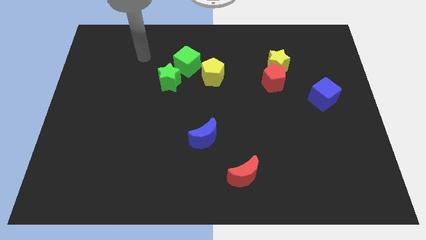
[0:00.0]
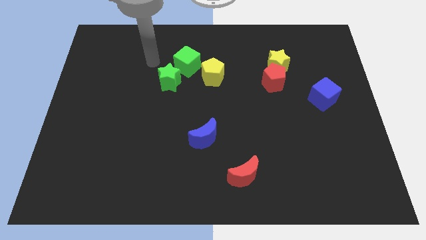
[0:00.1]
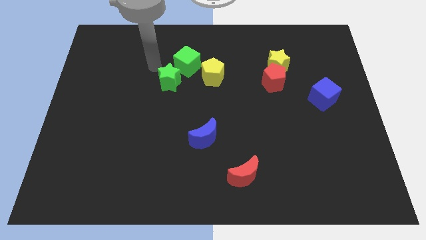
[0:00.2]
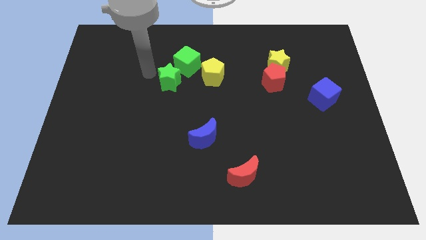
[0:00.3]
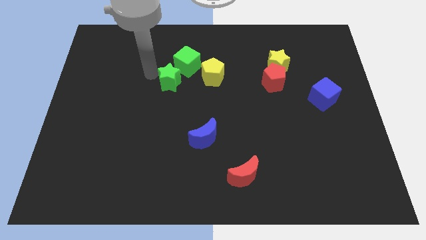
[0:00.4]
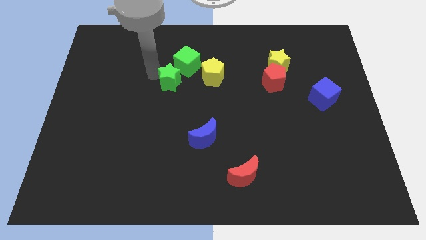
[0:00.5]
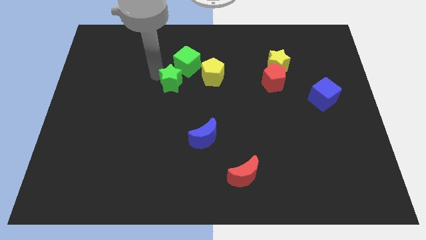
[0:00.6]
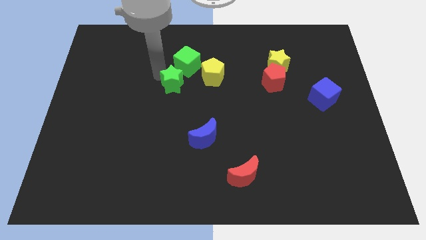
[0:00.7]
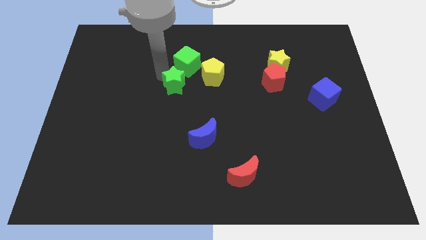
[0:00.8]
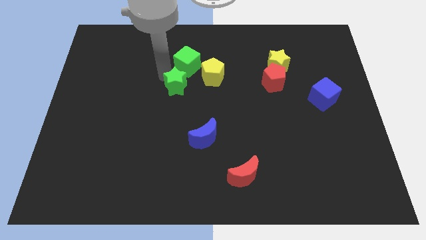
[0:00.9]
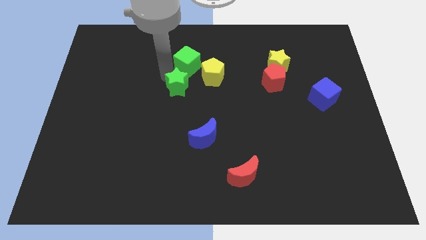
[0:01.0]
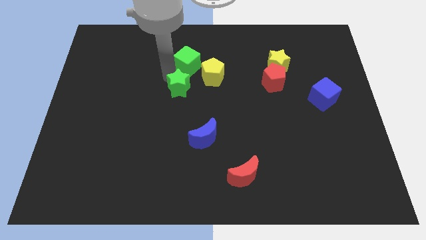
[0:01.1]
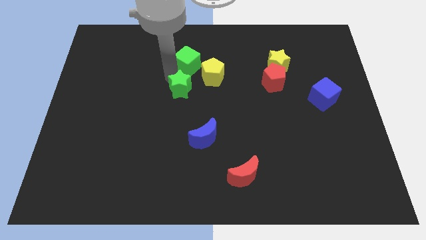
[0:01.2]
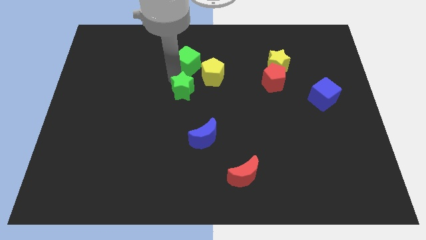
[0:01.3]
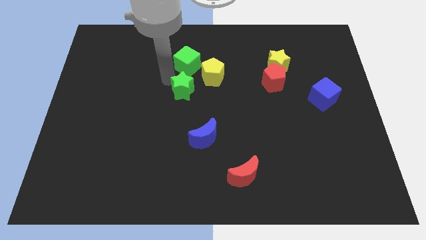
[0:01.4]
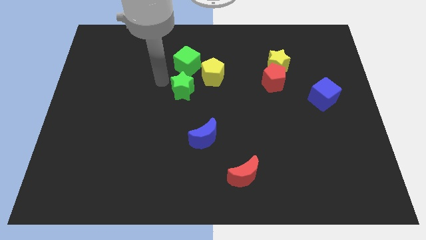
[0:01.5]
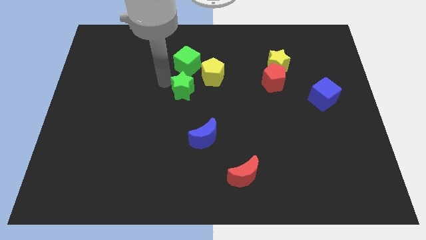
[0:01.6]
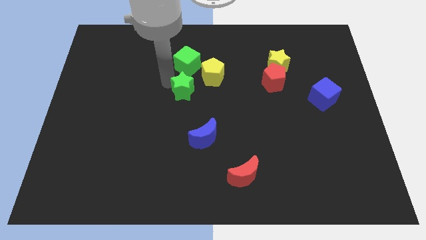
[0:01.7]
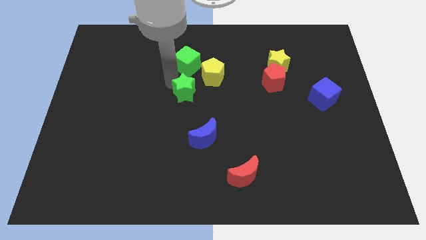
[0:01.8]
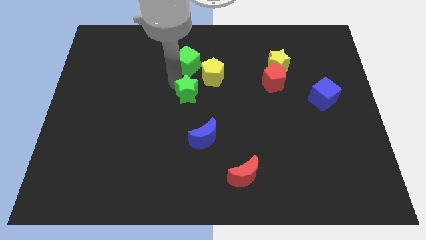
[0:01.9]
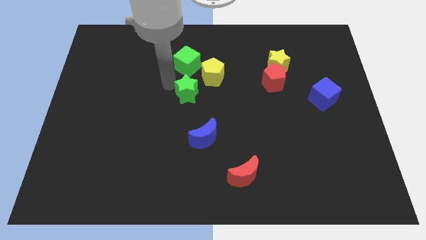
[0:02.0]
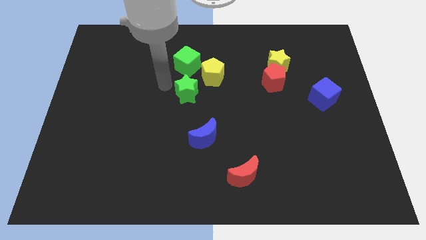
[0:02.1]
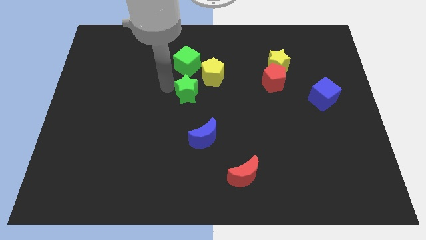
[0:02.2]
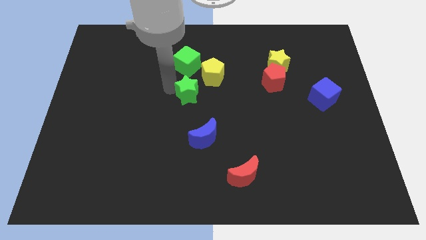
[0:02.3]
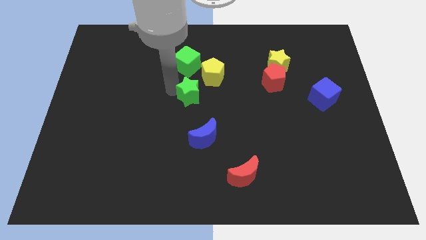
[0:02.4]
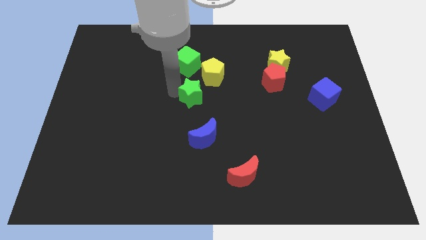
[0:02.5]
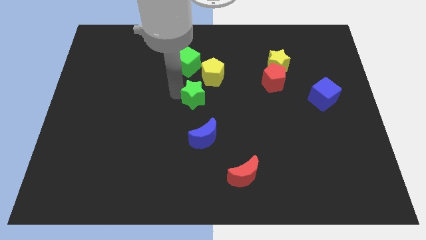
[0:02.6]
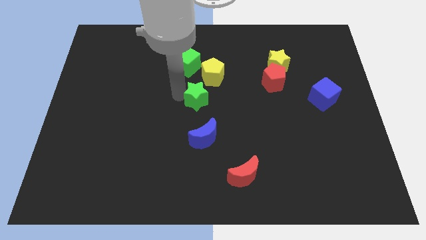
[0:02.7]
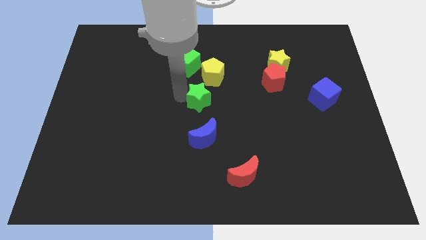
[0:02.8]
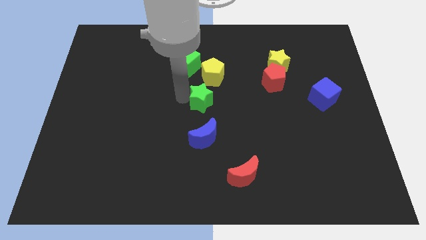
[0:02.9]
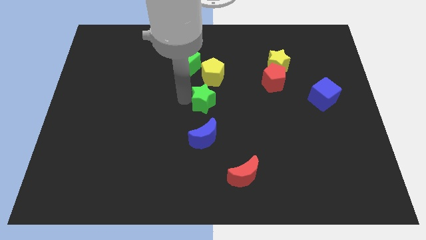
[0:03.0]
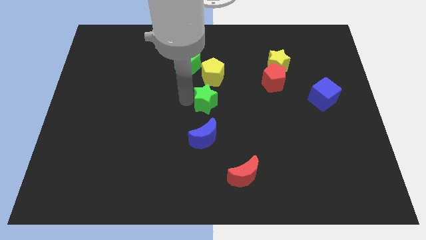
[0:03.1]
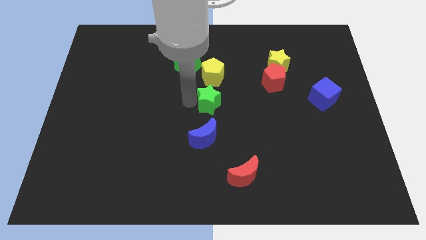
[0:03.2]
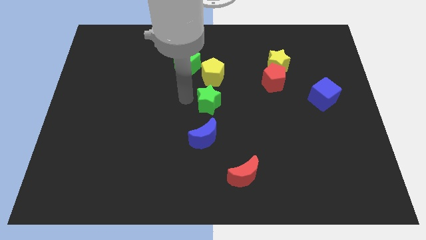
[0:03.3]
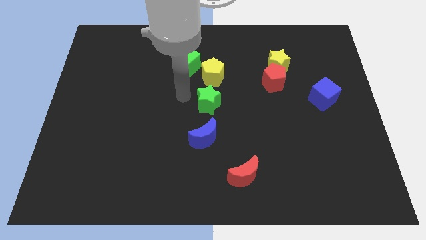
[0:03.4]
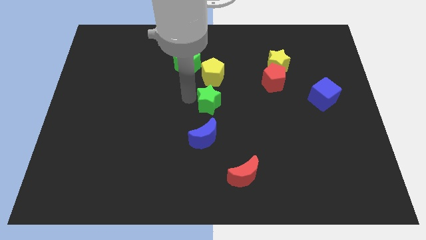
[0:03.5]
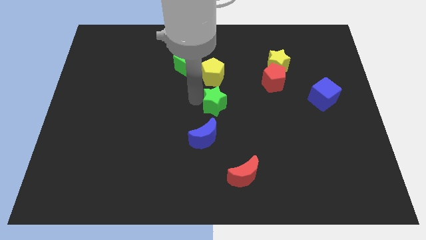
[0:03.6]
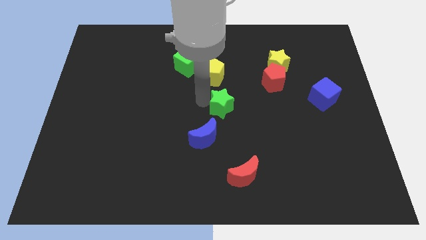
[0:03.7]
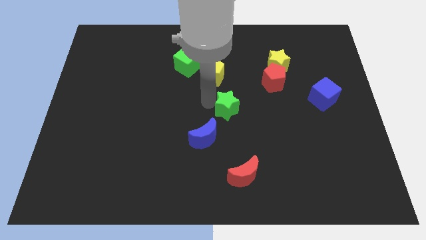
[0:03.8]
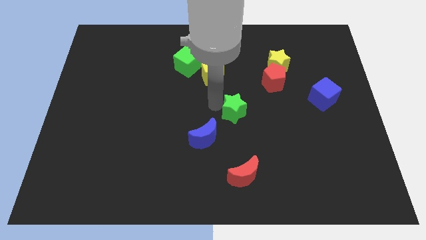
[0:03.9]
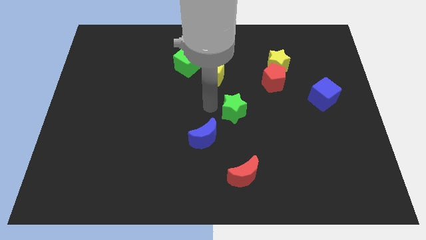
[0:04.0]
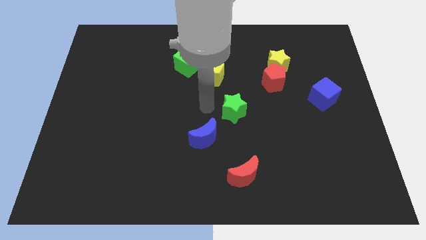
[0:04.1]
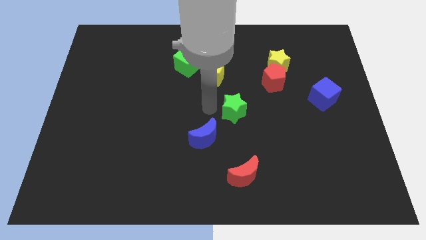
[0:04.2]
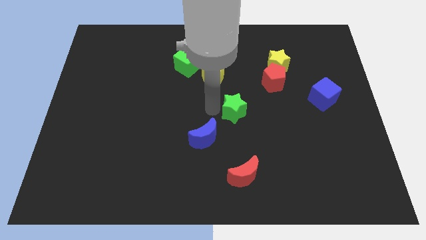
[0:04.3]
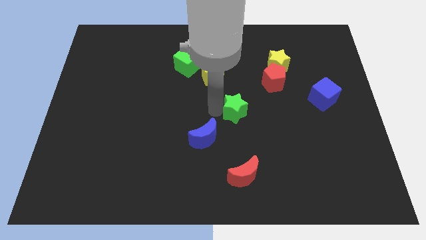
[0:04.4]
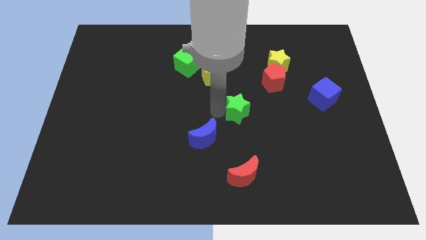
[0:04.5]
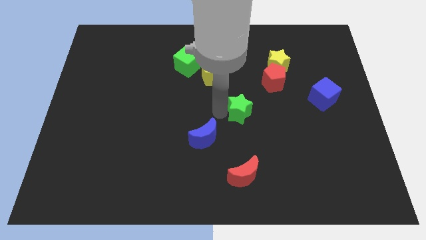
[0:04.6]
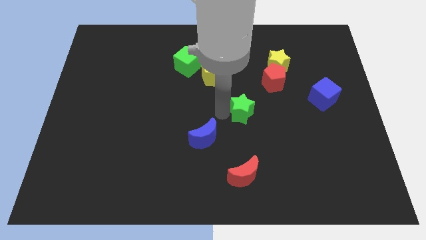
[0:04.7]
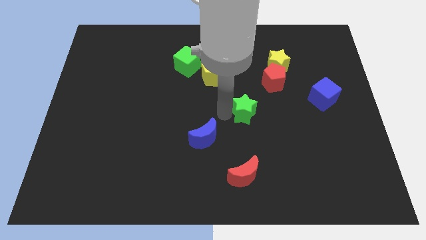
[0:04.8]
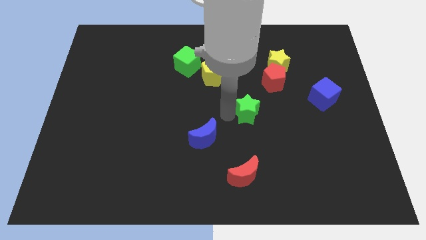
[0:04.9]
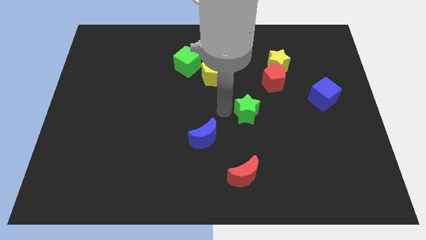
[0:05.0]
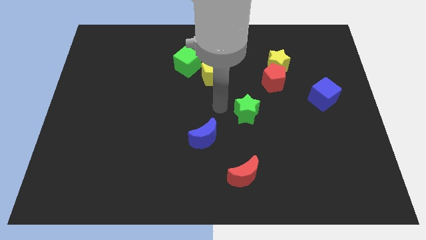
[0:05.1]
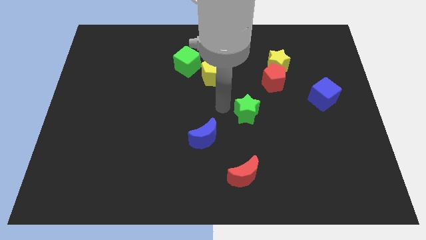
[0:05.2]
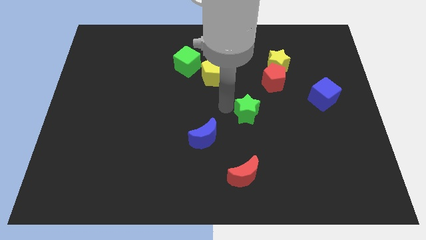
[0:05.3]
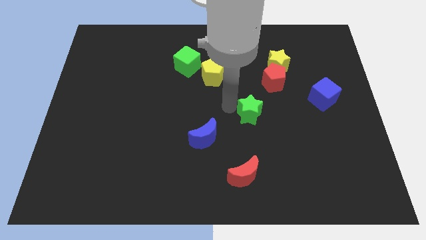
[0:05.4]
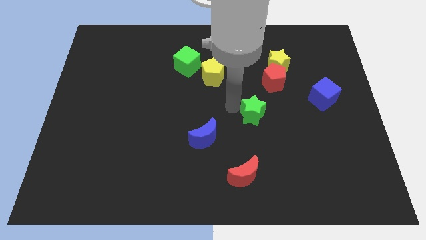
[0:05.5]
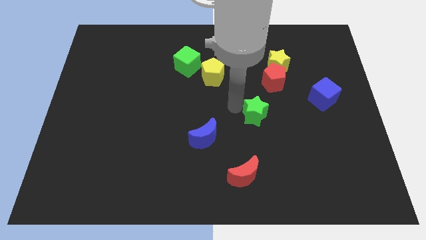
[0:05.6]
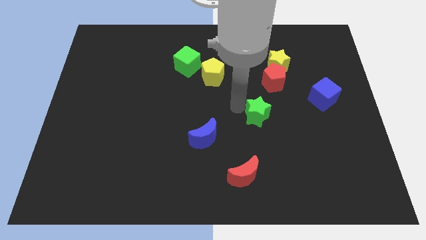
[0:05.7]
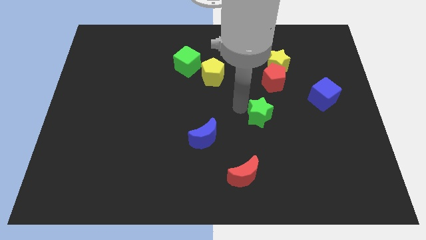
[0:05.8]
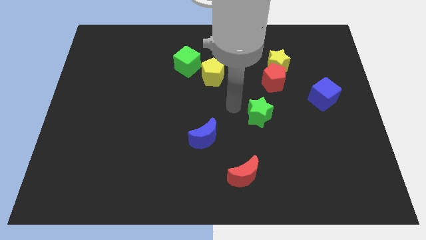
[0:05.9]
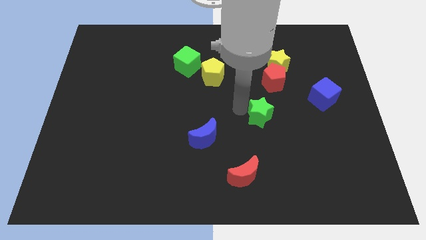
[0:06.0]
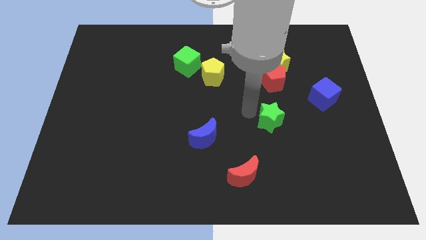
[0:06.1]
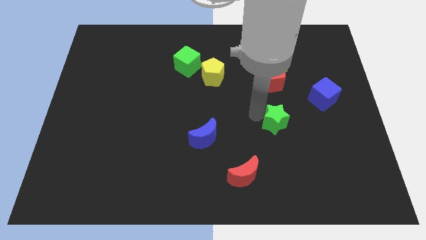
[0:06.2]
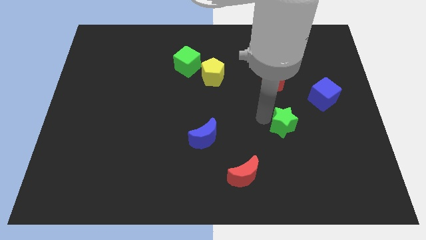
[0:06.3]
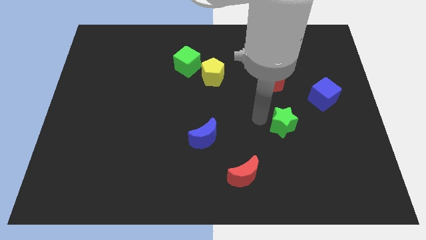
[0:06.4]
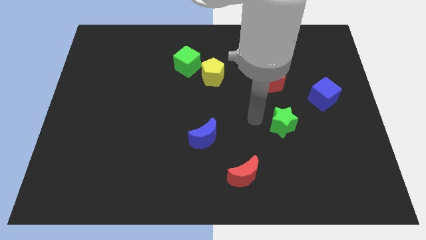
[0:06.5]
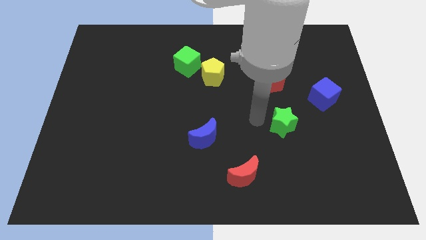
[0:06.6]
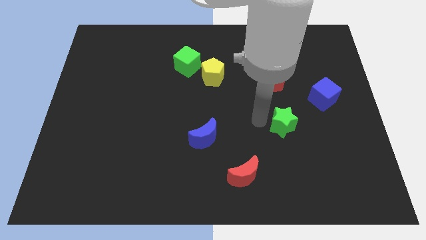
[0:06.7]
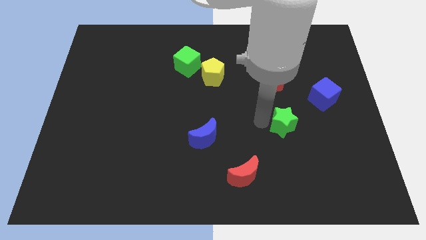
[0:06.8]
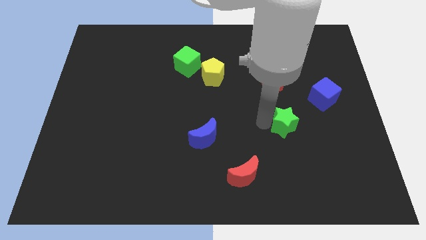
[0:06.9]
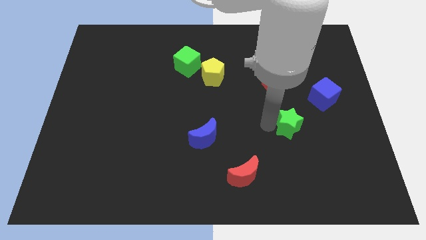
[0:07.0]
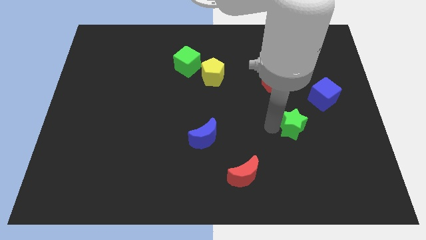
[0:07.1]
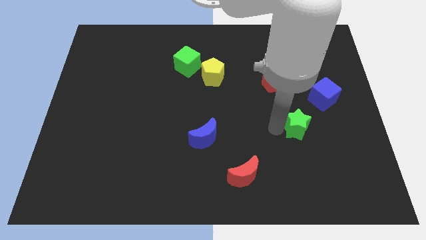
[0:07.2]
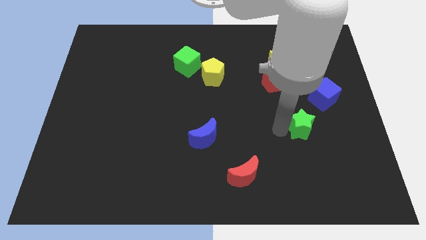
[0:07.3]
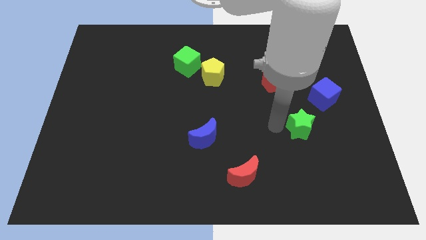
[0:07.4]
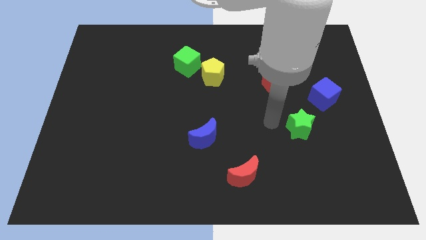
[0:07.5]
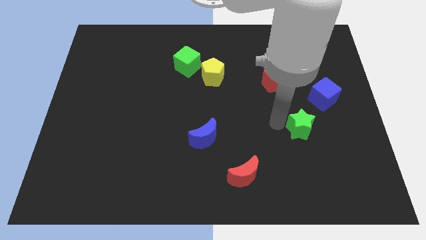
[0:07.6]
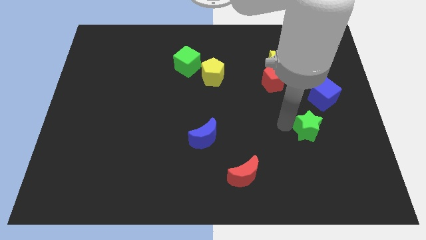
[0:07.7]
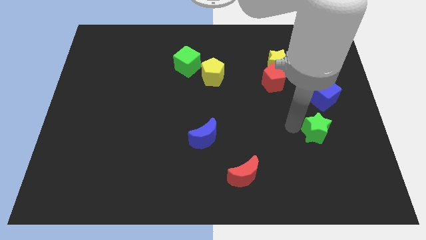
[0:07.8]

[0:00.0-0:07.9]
push the green star to the bottom of the blue cube
